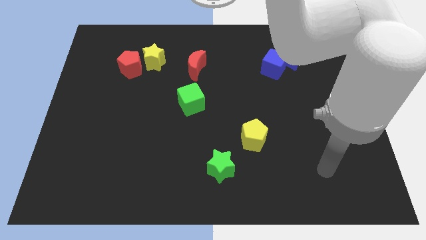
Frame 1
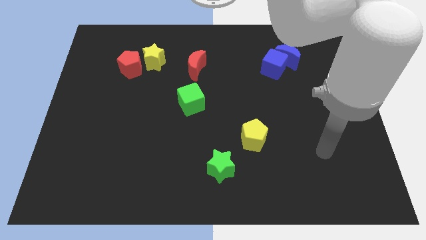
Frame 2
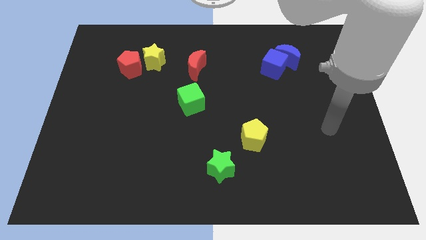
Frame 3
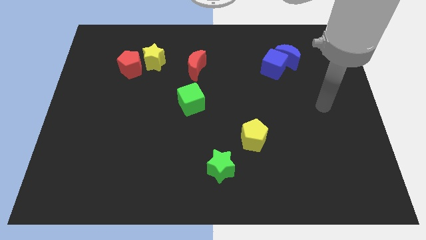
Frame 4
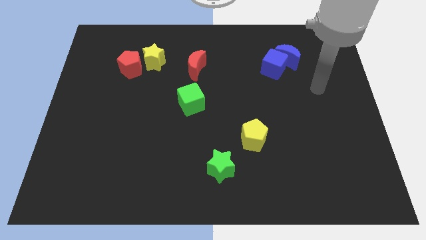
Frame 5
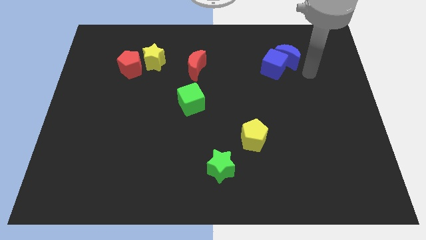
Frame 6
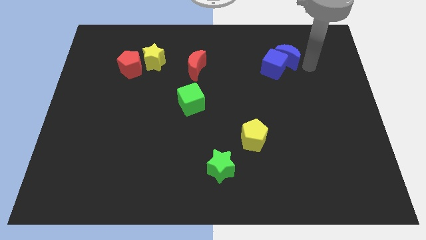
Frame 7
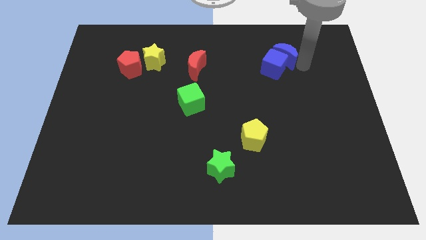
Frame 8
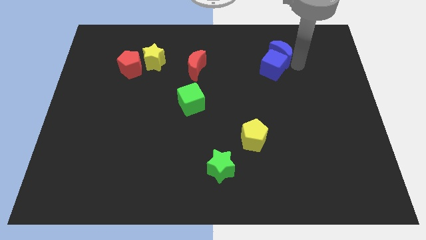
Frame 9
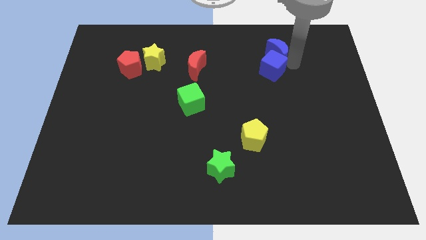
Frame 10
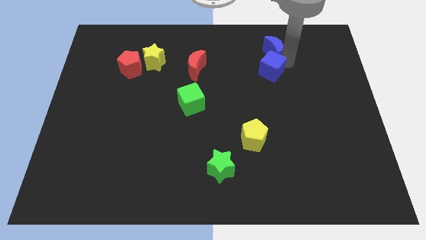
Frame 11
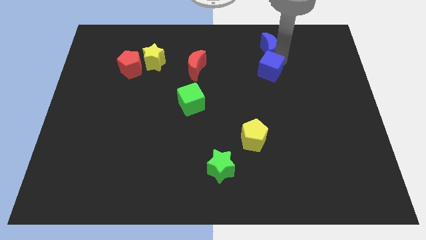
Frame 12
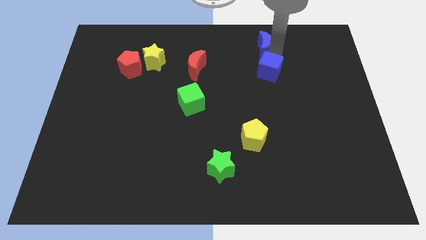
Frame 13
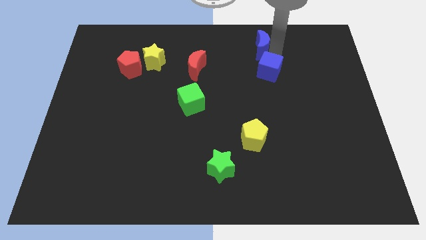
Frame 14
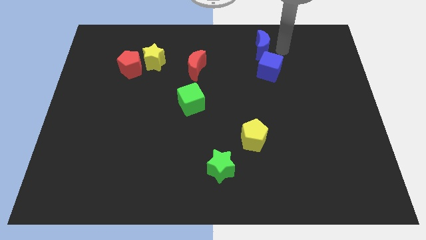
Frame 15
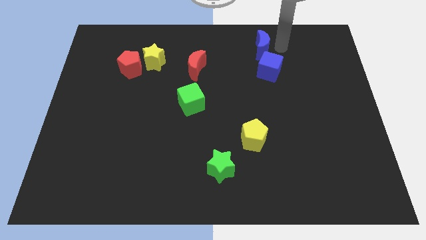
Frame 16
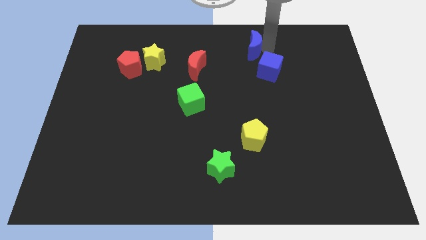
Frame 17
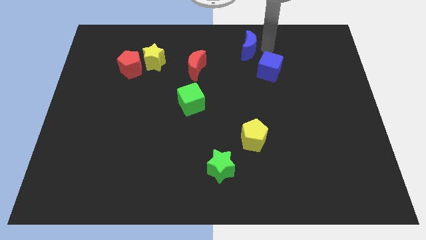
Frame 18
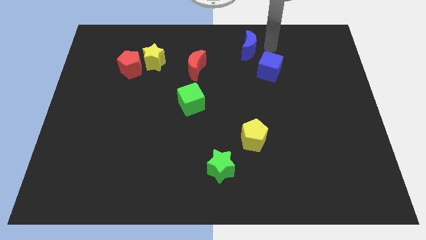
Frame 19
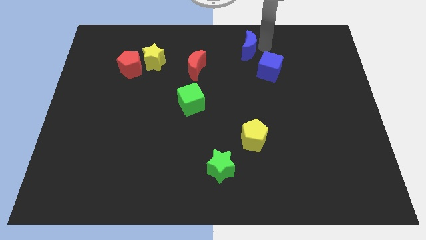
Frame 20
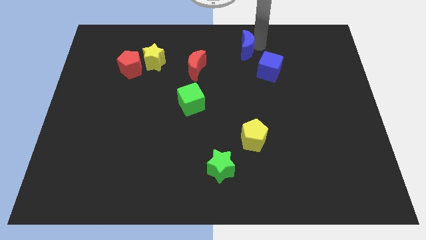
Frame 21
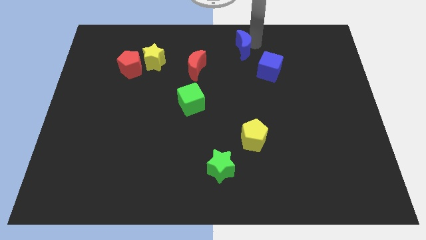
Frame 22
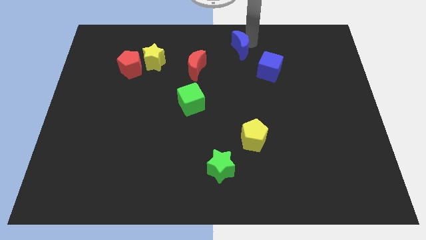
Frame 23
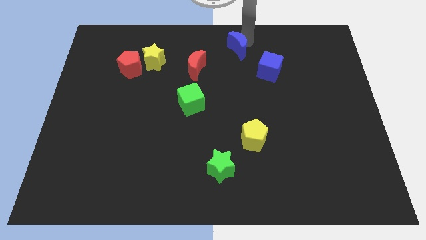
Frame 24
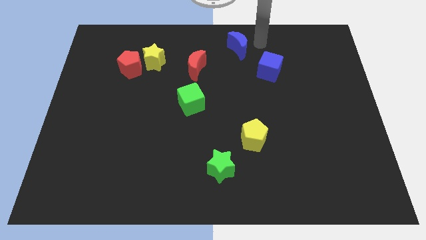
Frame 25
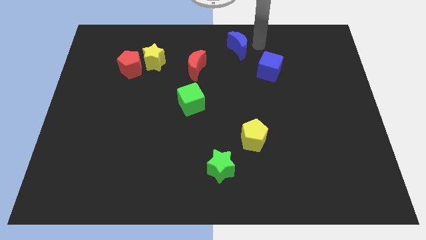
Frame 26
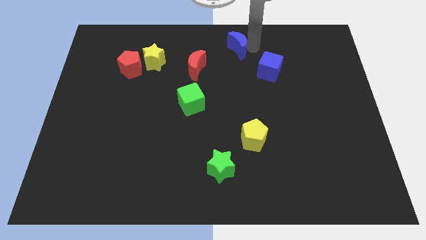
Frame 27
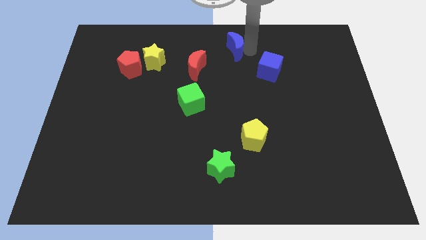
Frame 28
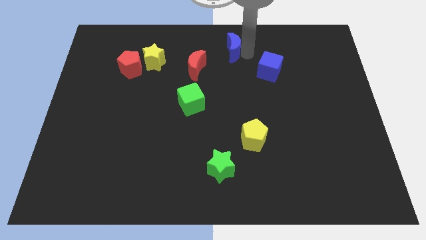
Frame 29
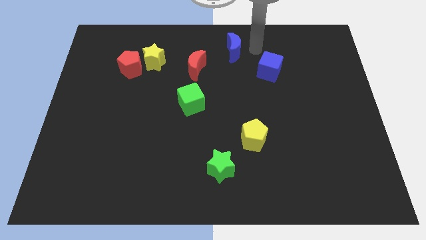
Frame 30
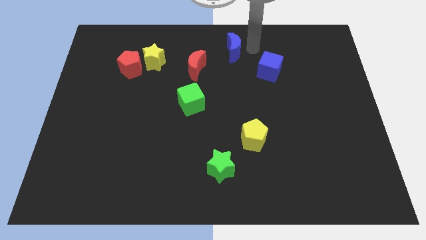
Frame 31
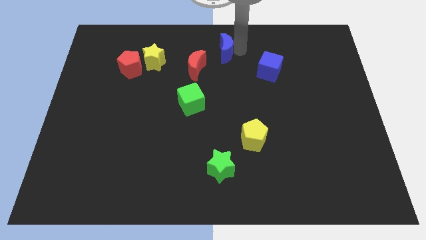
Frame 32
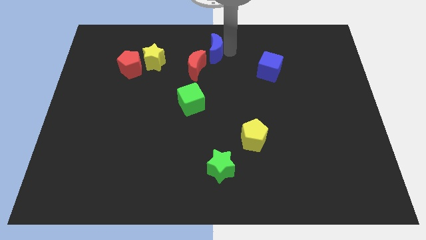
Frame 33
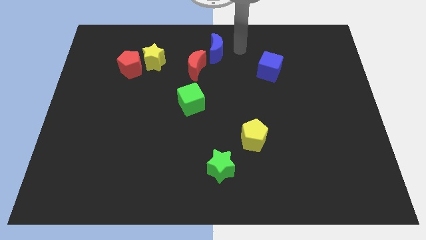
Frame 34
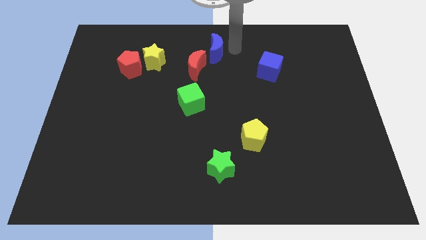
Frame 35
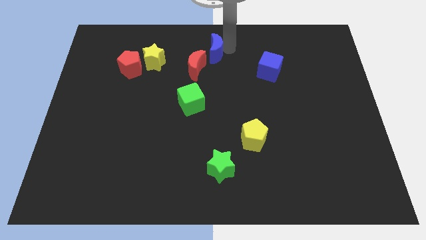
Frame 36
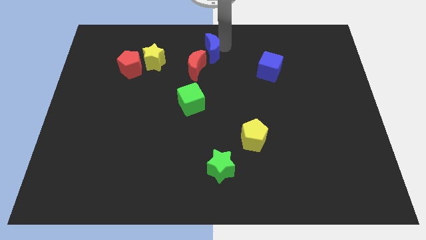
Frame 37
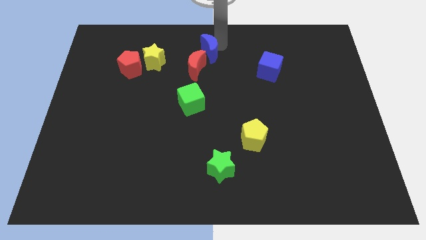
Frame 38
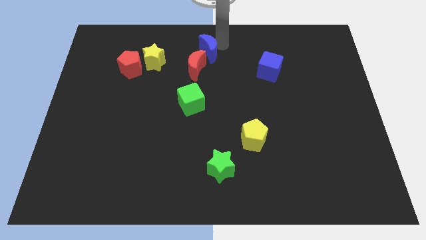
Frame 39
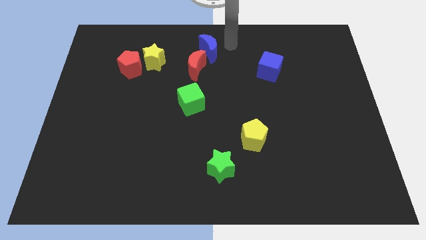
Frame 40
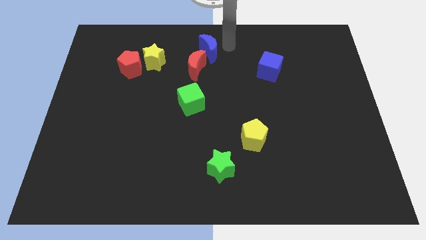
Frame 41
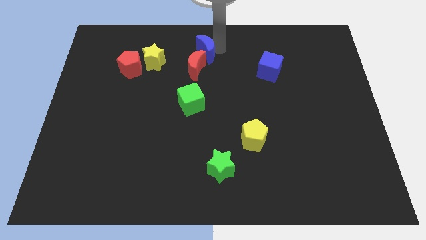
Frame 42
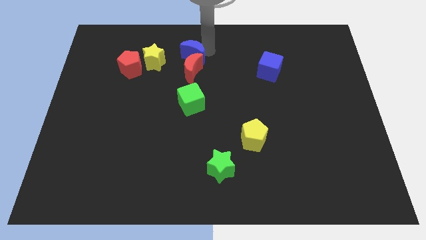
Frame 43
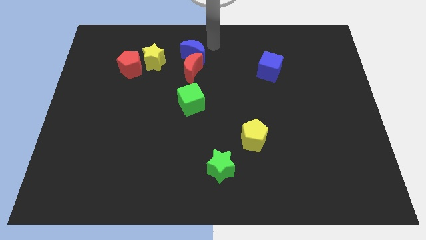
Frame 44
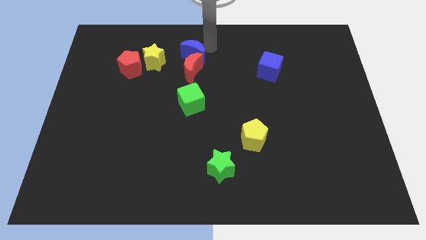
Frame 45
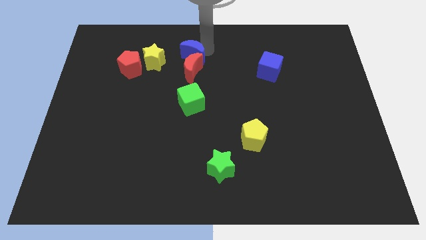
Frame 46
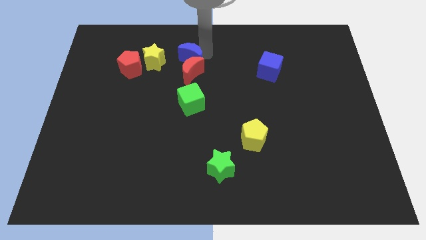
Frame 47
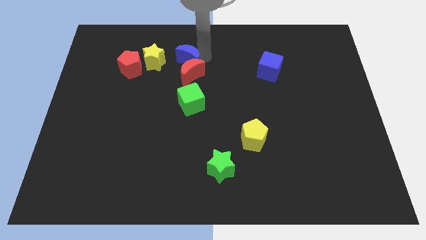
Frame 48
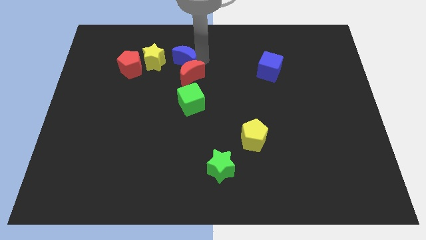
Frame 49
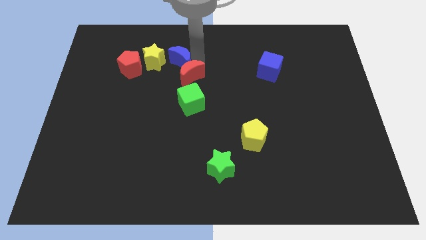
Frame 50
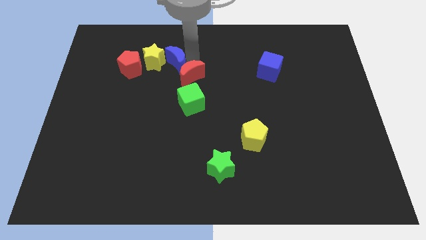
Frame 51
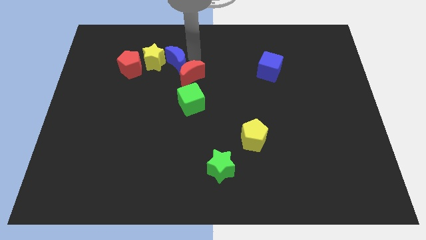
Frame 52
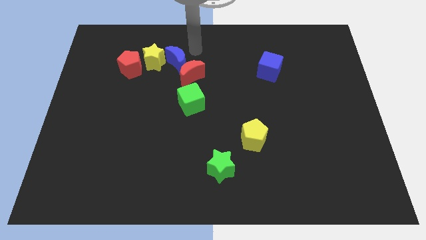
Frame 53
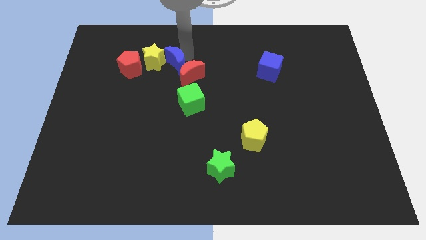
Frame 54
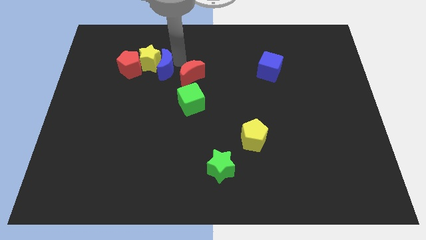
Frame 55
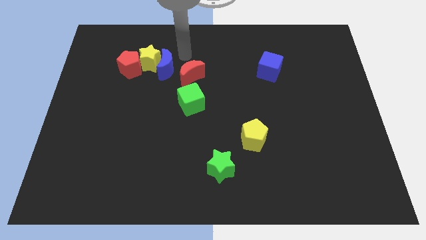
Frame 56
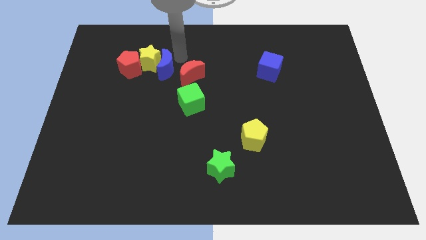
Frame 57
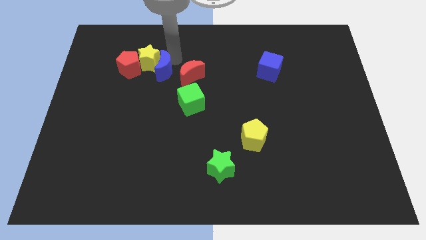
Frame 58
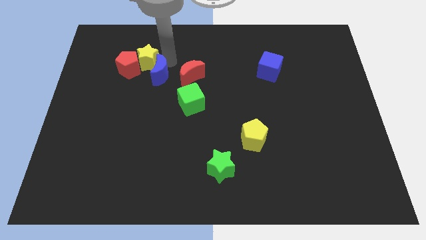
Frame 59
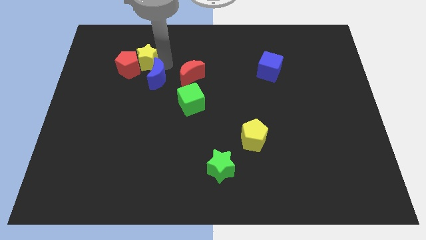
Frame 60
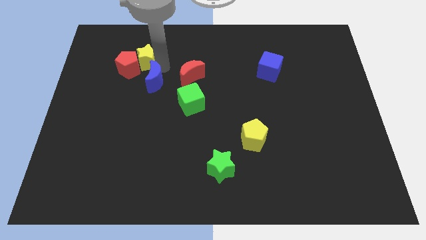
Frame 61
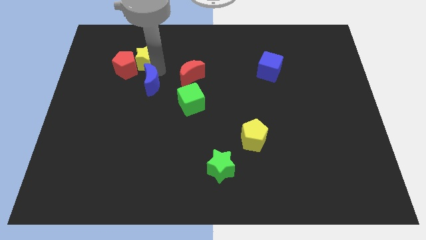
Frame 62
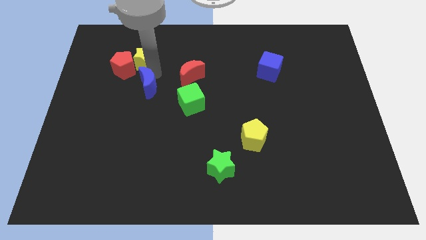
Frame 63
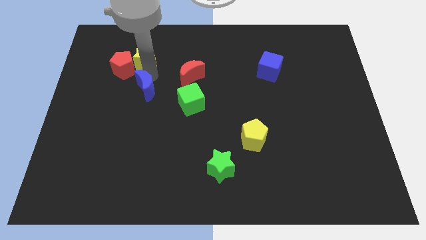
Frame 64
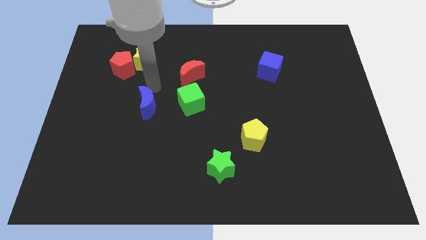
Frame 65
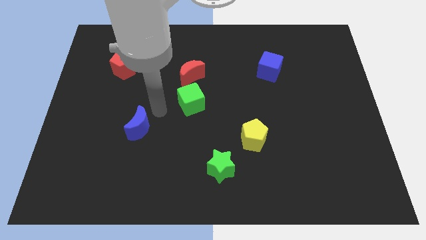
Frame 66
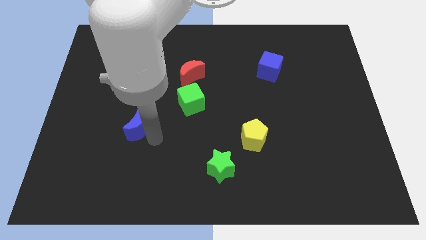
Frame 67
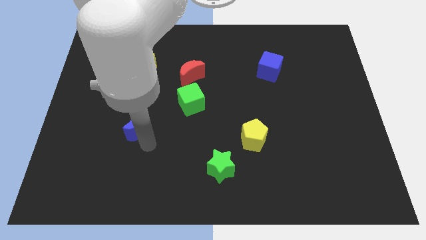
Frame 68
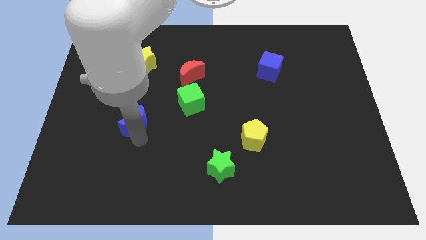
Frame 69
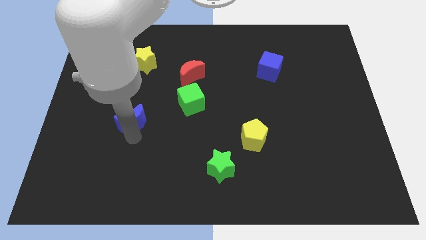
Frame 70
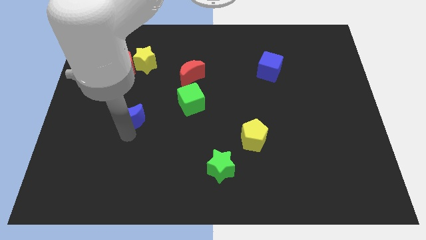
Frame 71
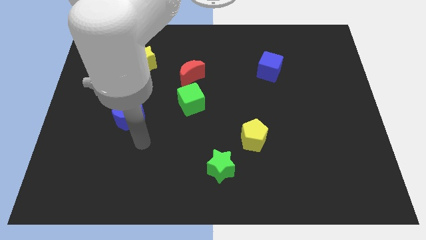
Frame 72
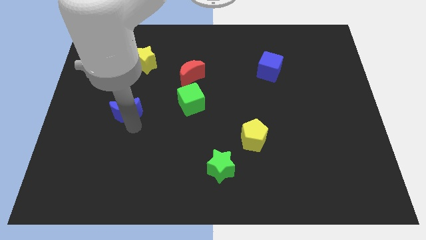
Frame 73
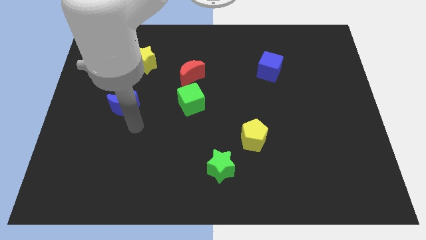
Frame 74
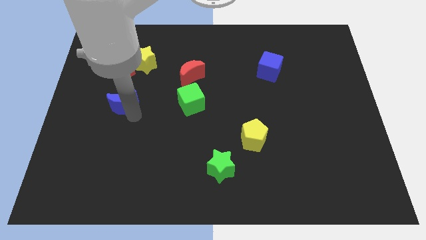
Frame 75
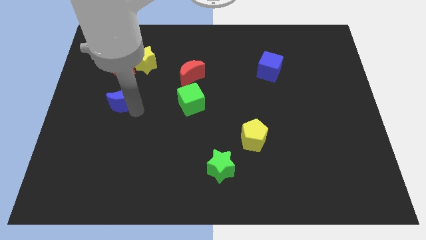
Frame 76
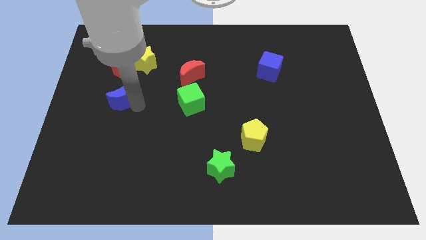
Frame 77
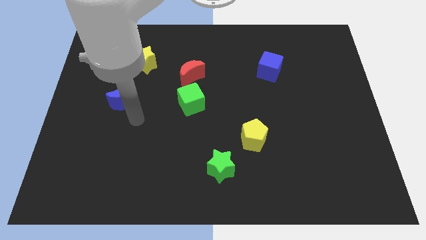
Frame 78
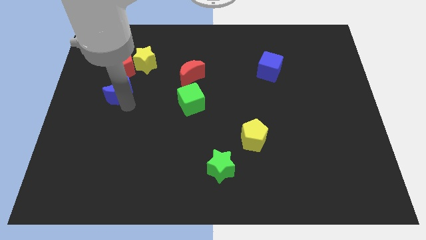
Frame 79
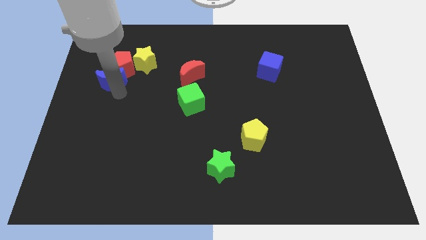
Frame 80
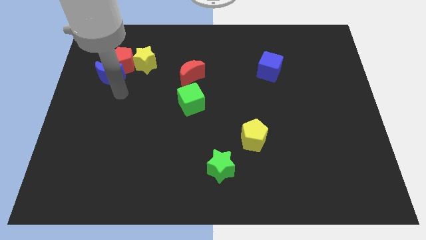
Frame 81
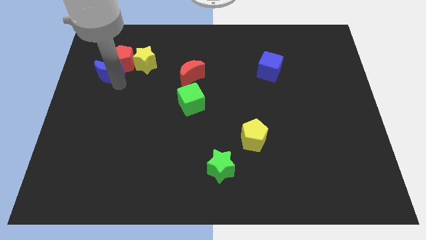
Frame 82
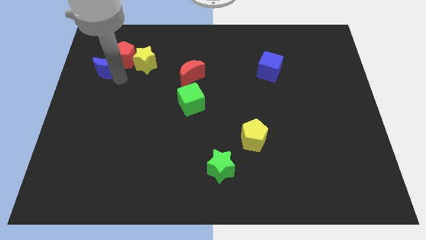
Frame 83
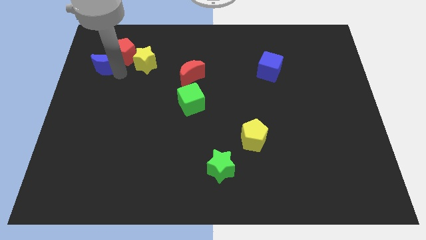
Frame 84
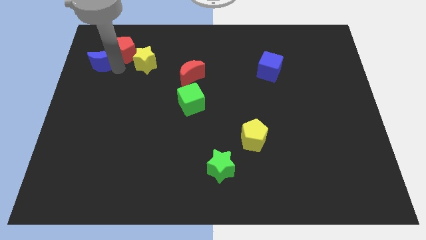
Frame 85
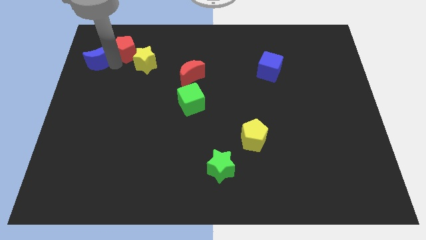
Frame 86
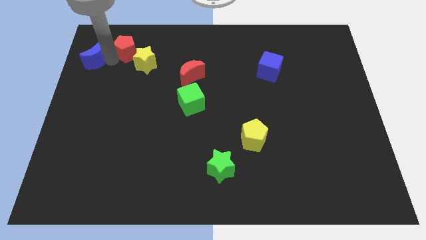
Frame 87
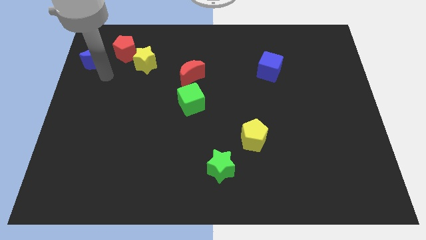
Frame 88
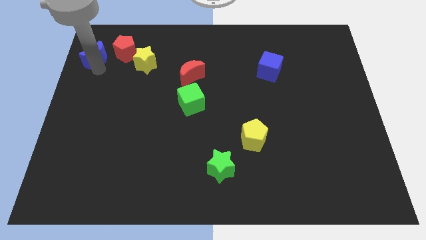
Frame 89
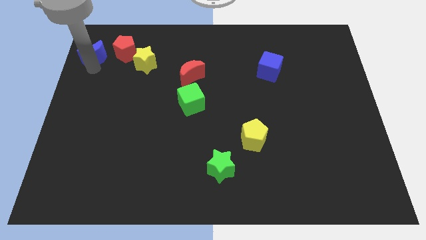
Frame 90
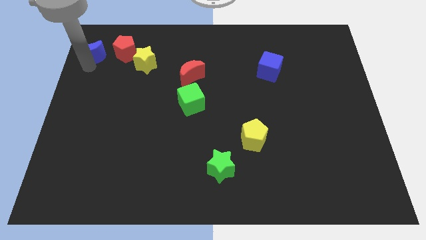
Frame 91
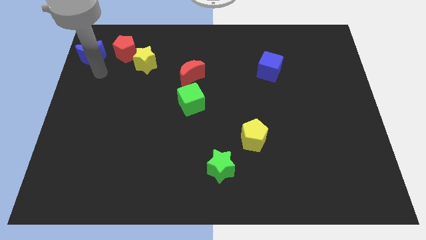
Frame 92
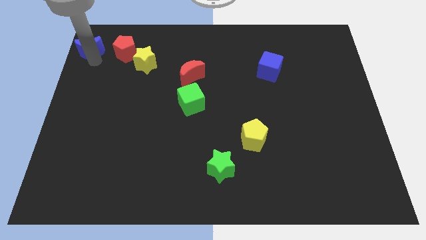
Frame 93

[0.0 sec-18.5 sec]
slide the blue moon to the top left of the board
